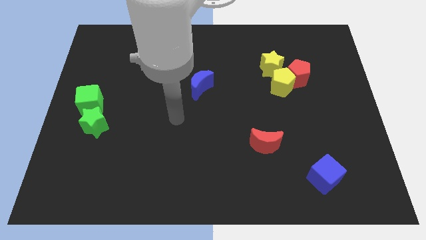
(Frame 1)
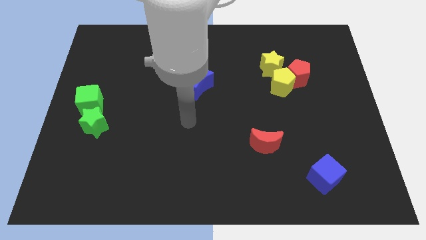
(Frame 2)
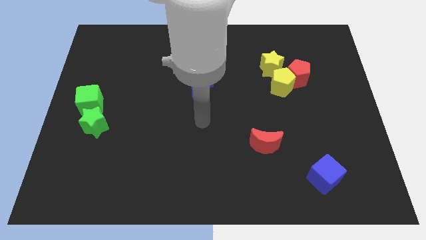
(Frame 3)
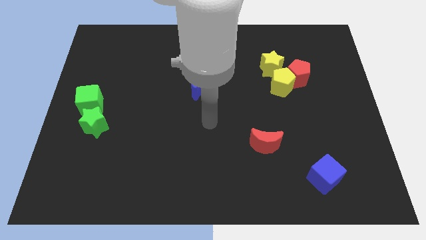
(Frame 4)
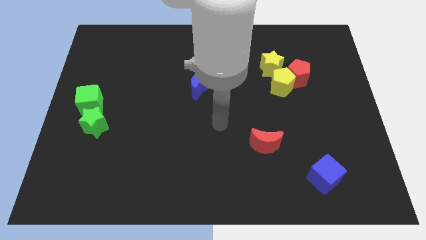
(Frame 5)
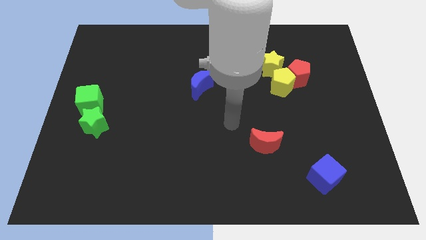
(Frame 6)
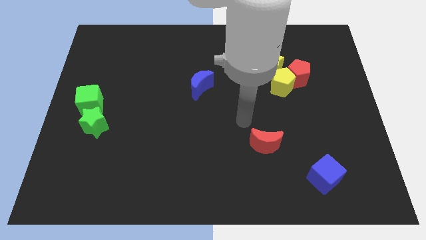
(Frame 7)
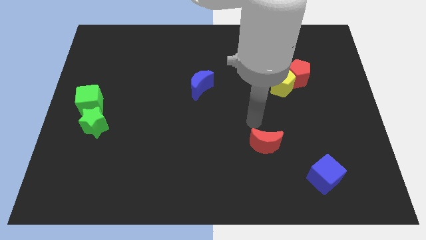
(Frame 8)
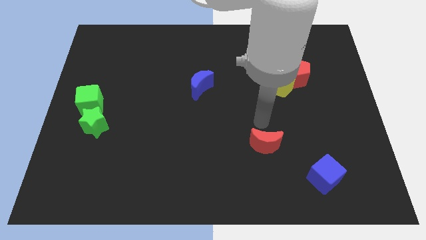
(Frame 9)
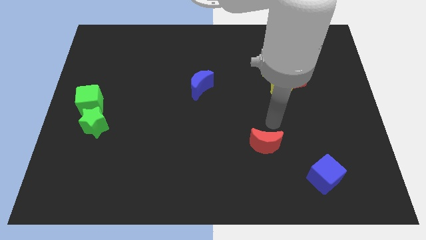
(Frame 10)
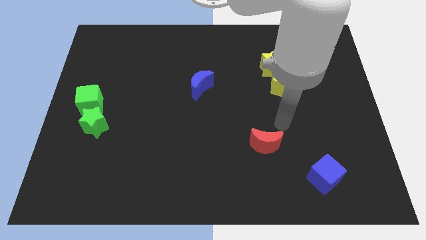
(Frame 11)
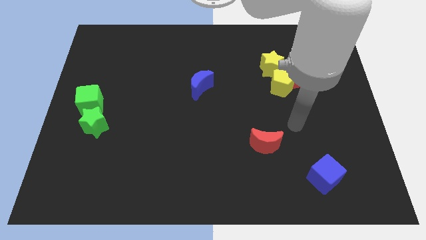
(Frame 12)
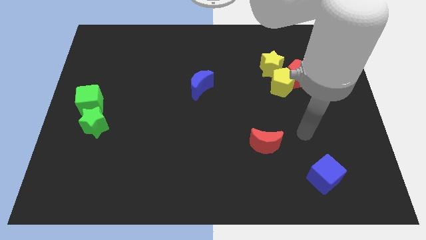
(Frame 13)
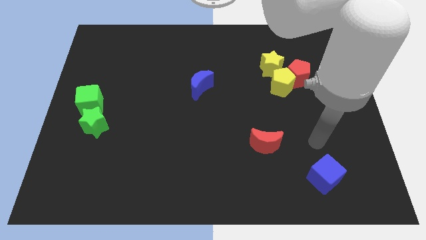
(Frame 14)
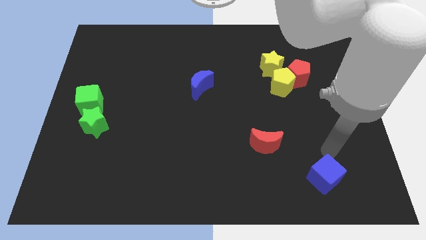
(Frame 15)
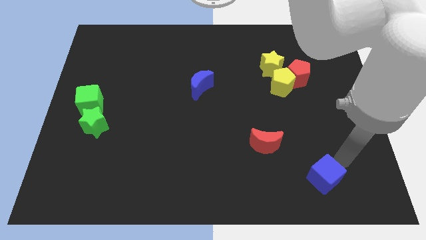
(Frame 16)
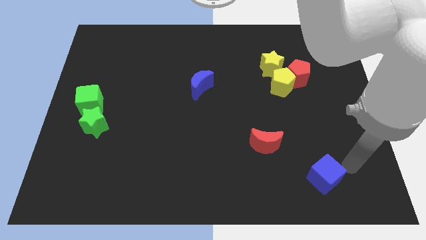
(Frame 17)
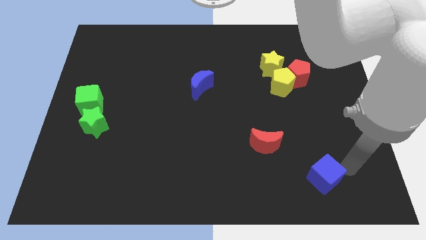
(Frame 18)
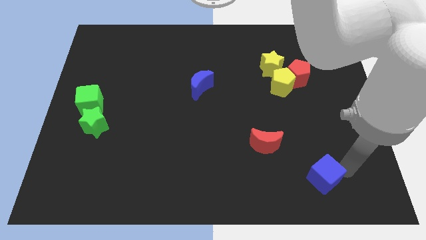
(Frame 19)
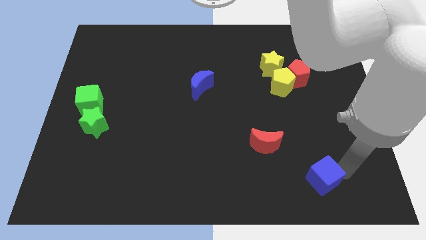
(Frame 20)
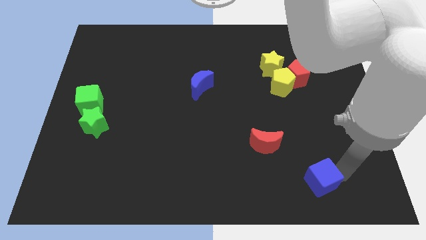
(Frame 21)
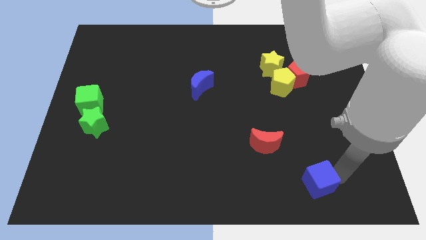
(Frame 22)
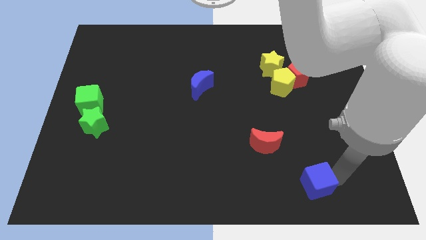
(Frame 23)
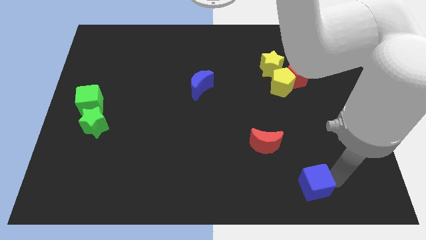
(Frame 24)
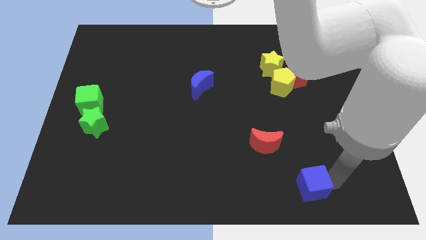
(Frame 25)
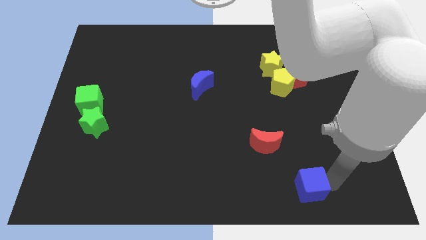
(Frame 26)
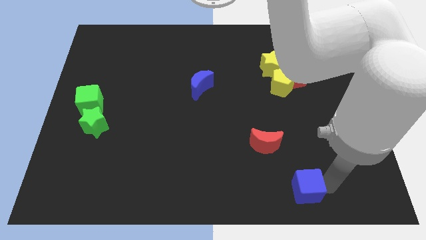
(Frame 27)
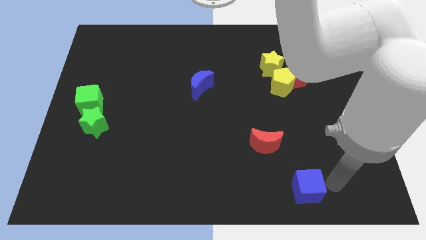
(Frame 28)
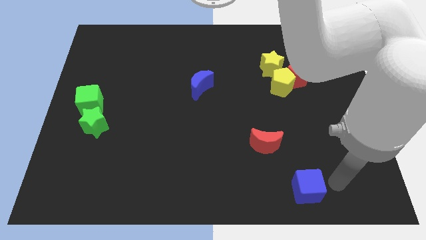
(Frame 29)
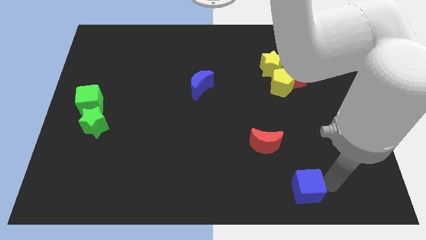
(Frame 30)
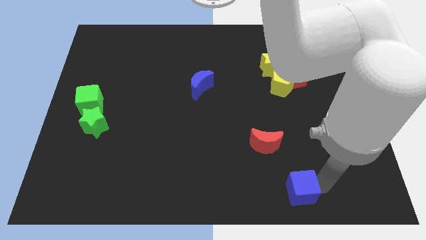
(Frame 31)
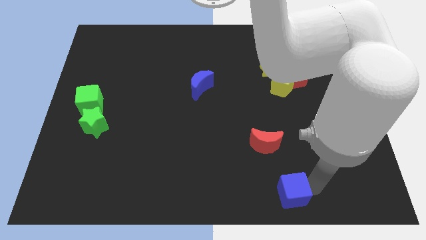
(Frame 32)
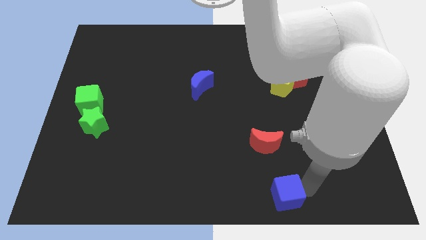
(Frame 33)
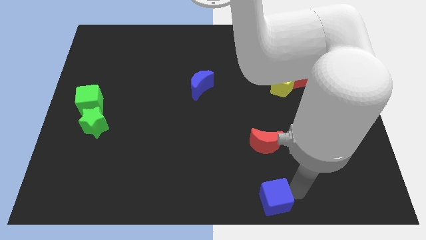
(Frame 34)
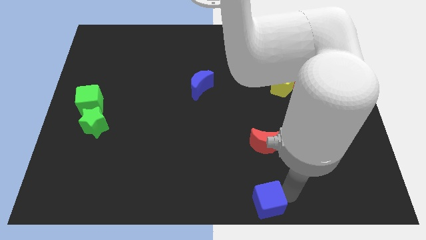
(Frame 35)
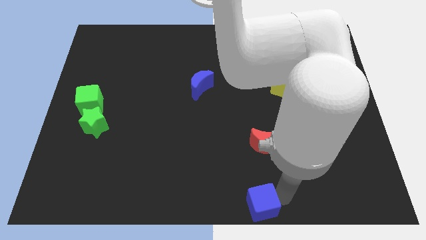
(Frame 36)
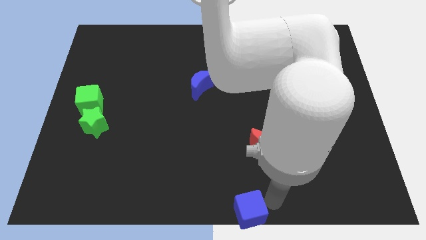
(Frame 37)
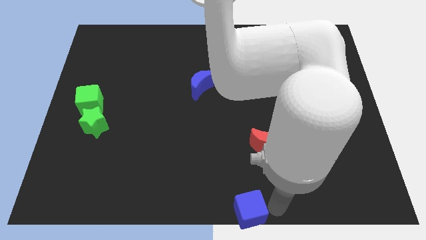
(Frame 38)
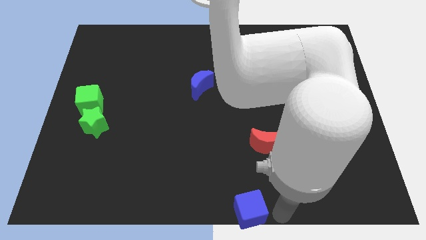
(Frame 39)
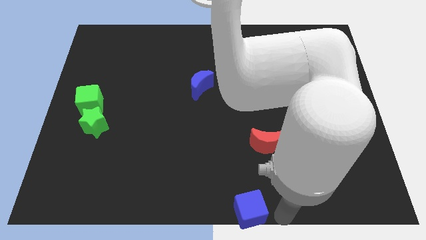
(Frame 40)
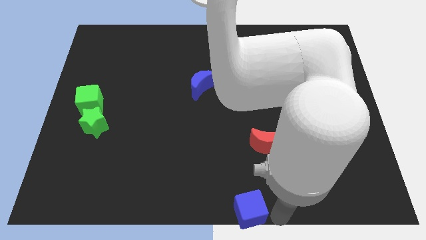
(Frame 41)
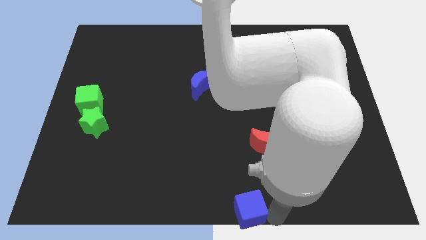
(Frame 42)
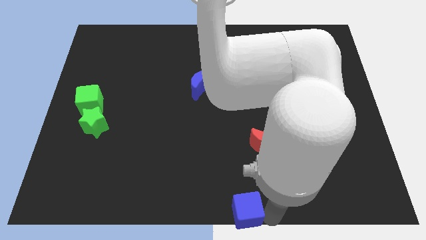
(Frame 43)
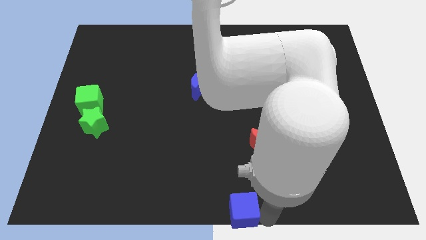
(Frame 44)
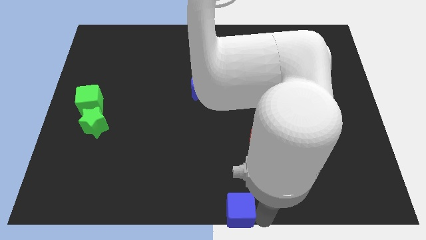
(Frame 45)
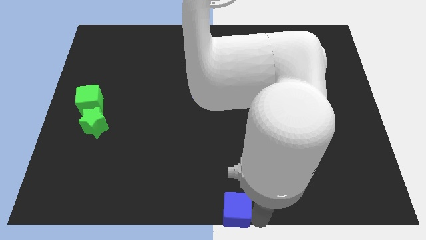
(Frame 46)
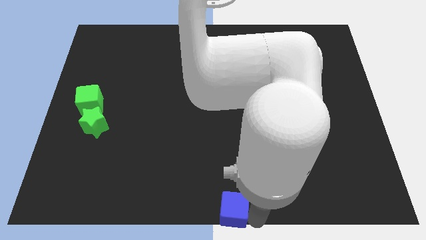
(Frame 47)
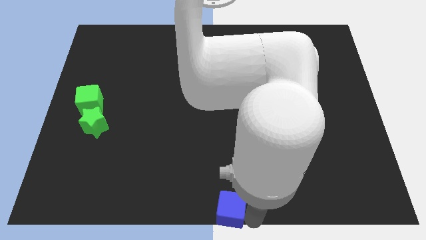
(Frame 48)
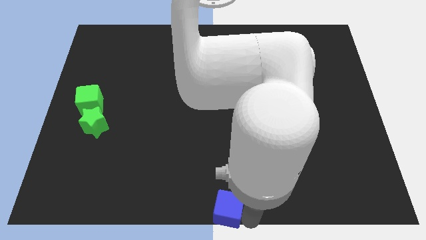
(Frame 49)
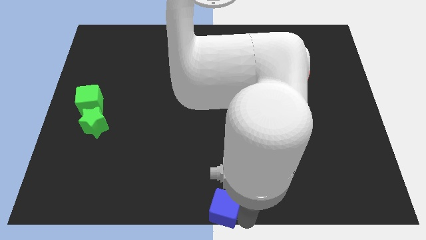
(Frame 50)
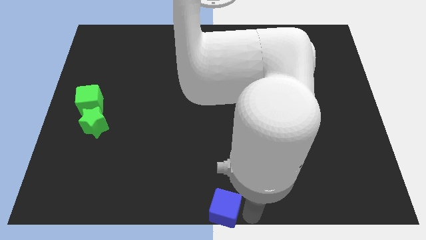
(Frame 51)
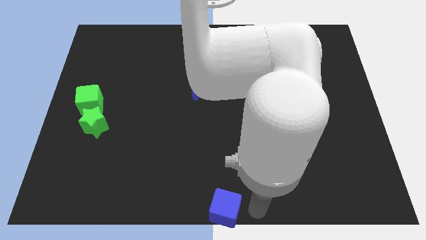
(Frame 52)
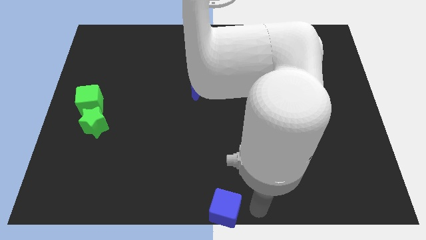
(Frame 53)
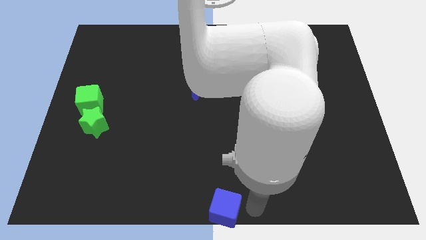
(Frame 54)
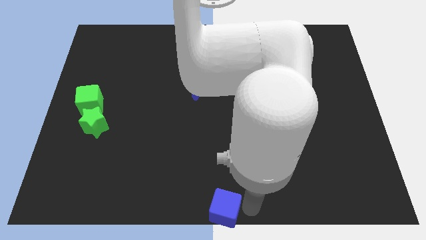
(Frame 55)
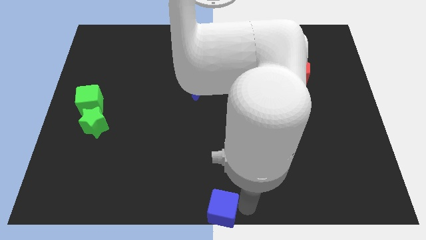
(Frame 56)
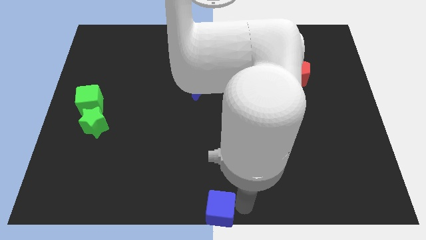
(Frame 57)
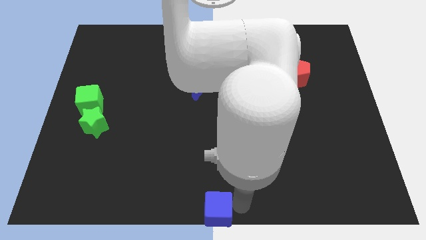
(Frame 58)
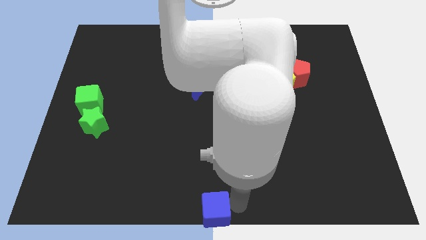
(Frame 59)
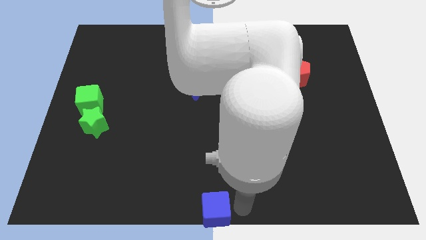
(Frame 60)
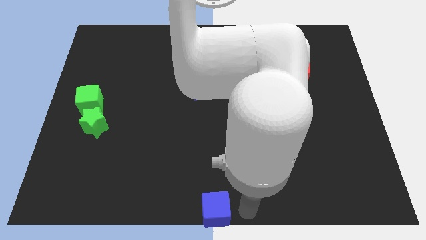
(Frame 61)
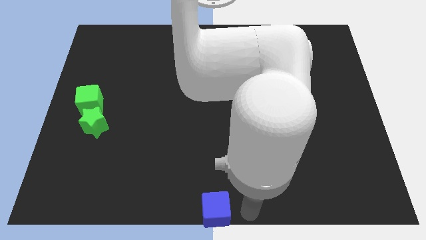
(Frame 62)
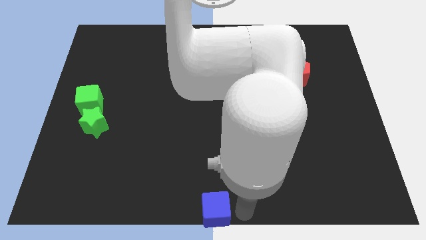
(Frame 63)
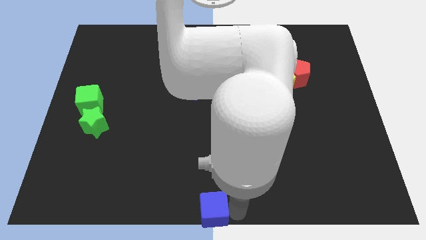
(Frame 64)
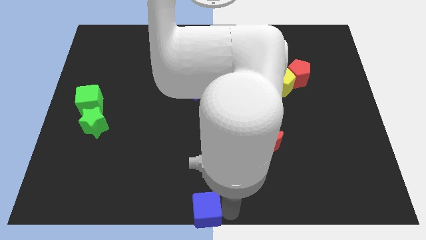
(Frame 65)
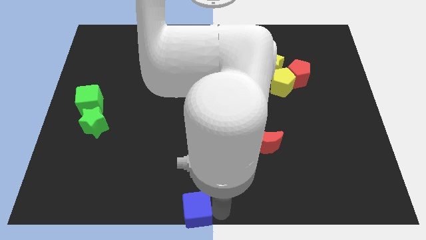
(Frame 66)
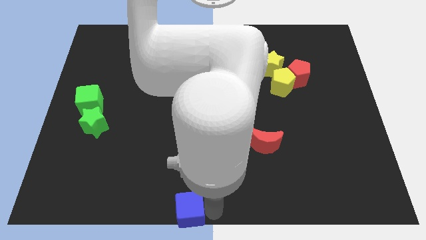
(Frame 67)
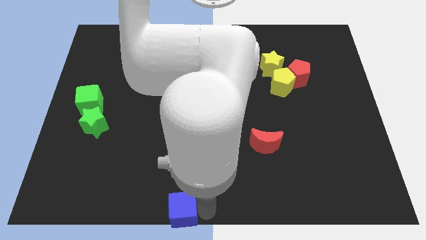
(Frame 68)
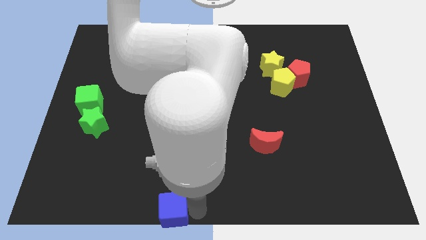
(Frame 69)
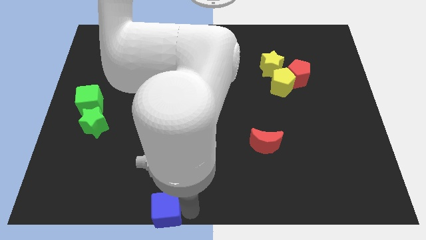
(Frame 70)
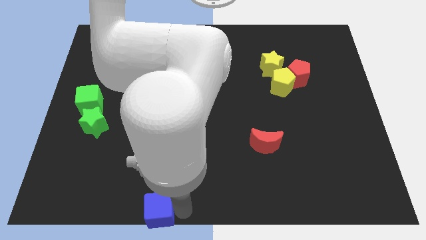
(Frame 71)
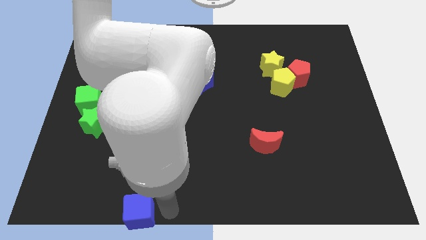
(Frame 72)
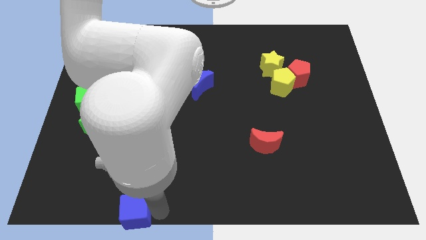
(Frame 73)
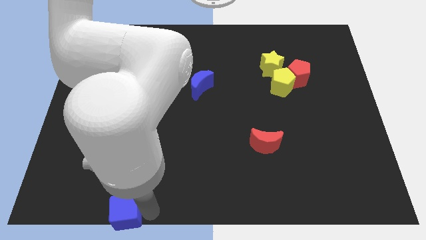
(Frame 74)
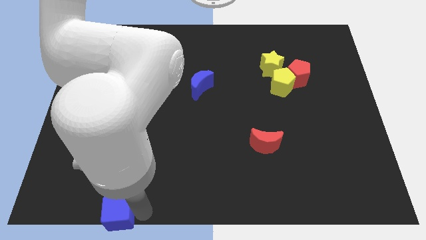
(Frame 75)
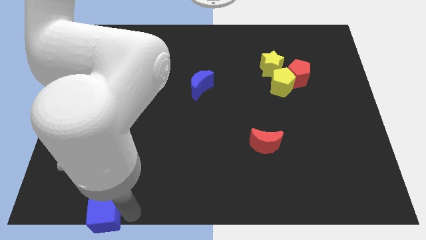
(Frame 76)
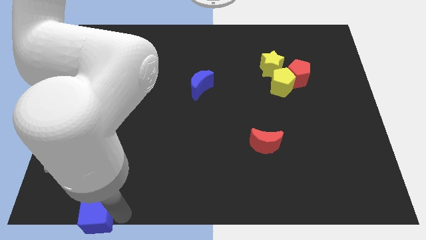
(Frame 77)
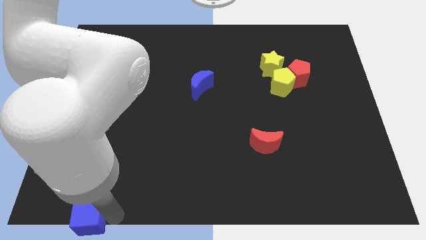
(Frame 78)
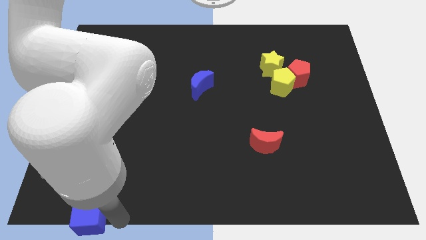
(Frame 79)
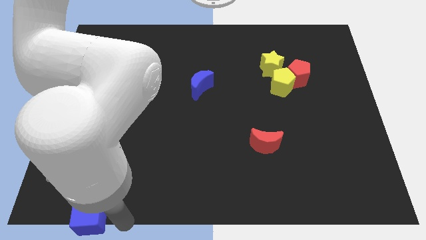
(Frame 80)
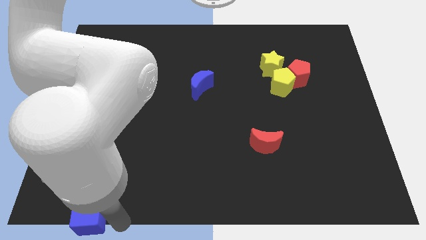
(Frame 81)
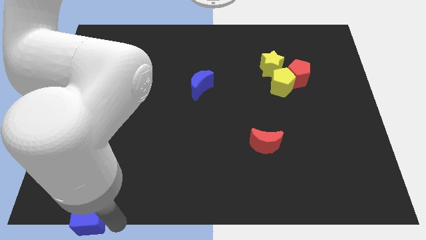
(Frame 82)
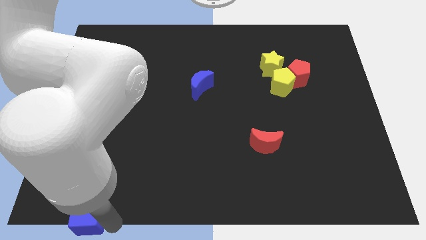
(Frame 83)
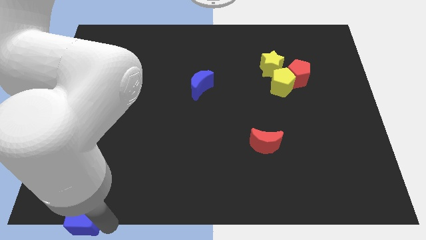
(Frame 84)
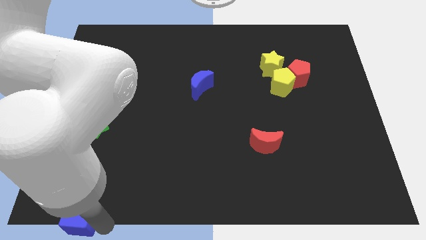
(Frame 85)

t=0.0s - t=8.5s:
put the blue cube to the bottom left corner
